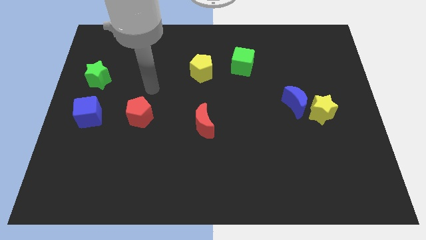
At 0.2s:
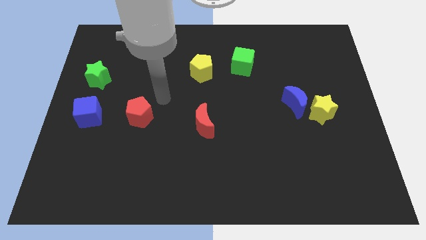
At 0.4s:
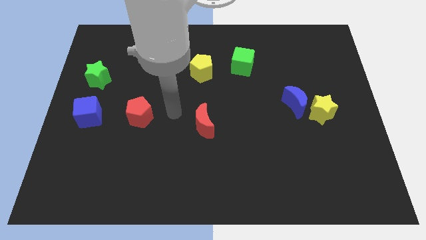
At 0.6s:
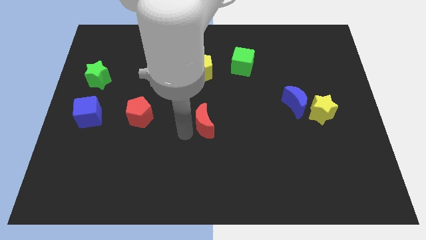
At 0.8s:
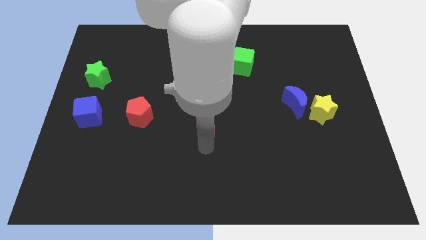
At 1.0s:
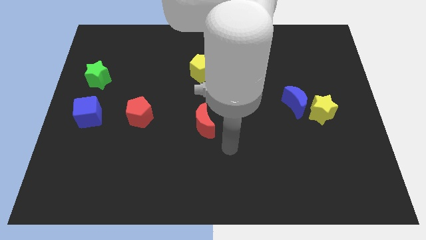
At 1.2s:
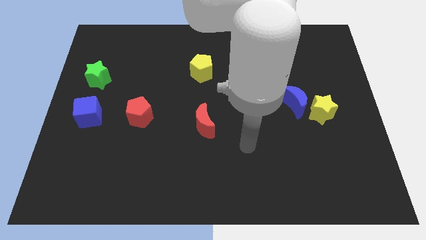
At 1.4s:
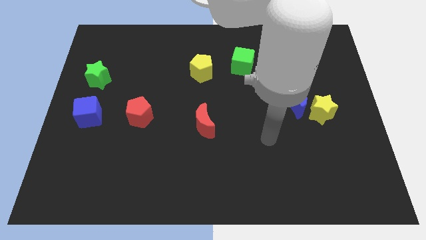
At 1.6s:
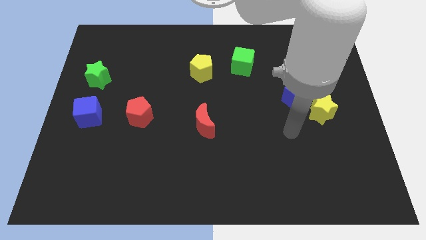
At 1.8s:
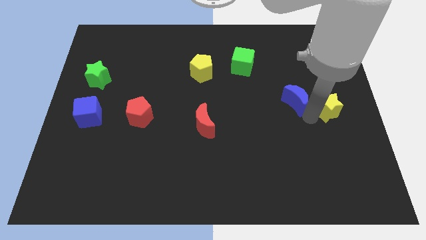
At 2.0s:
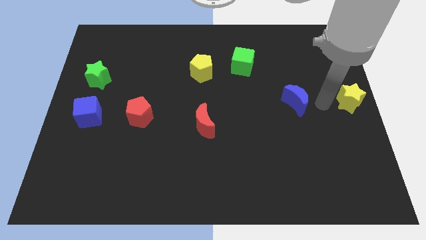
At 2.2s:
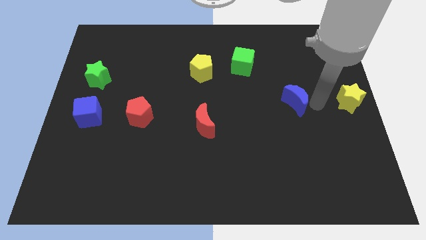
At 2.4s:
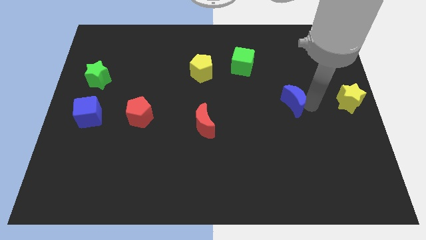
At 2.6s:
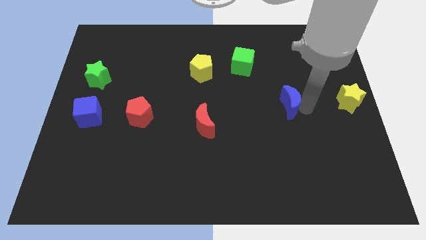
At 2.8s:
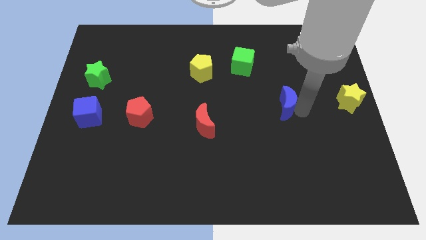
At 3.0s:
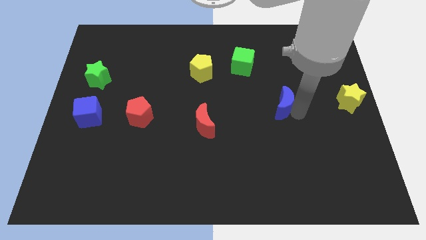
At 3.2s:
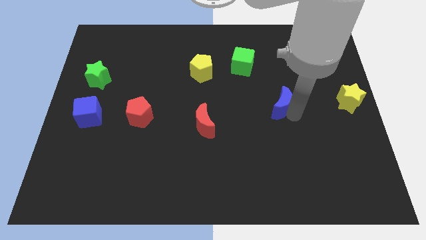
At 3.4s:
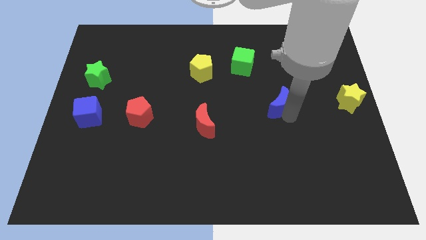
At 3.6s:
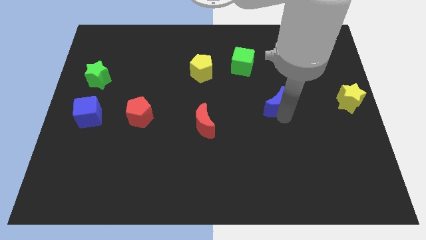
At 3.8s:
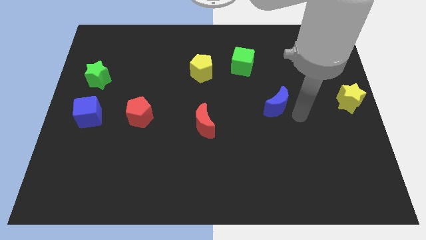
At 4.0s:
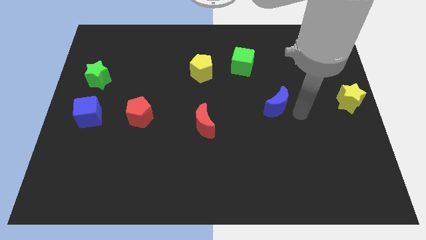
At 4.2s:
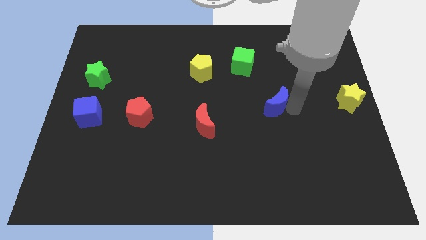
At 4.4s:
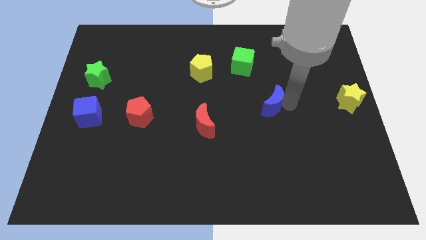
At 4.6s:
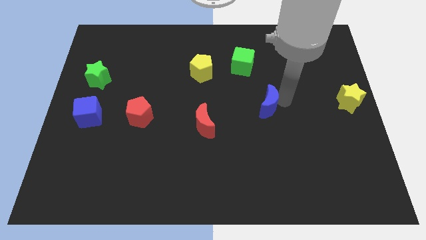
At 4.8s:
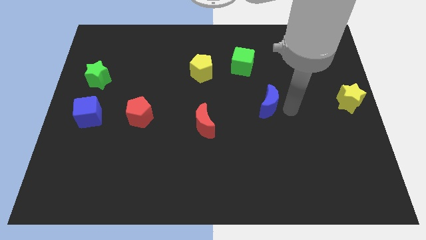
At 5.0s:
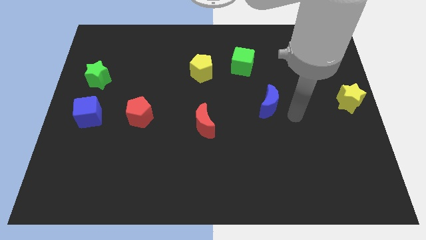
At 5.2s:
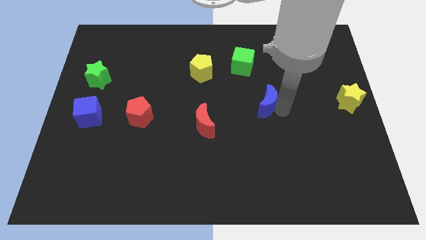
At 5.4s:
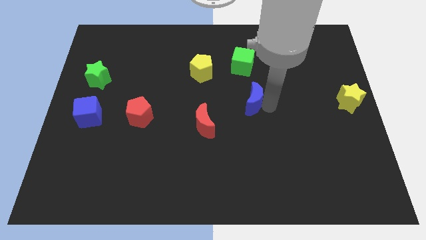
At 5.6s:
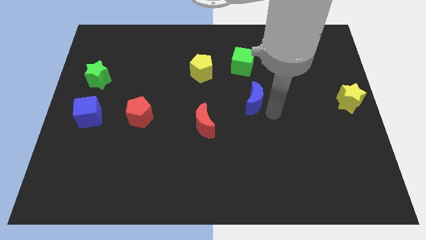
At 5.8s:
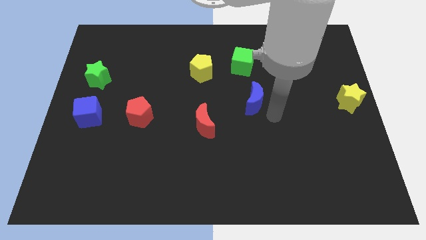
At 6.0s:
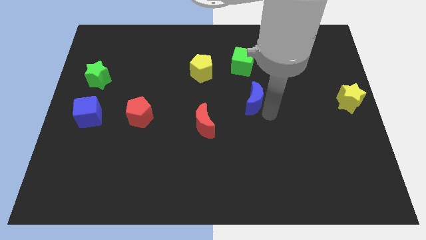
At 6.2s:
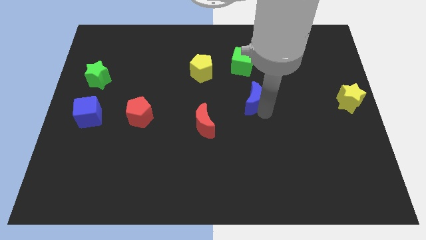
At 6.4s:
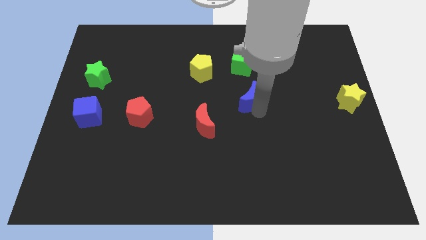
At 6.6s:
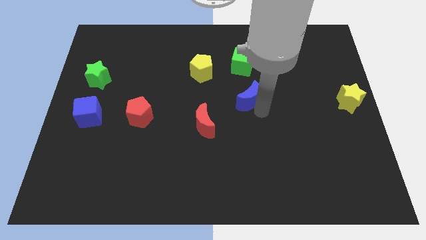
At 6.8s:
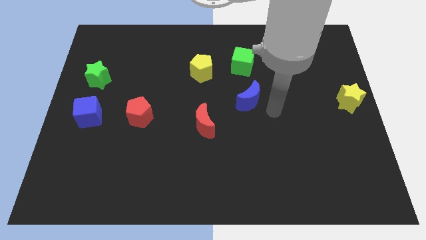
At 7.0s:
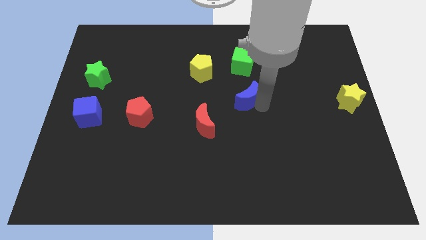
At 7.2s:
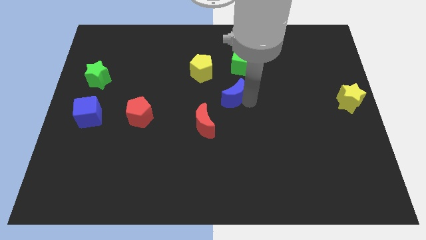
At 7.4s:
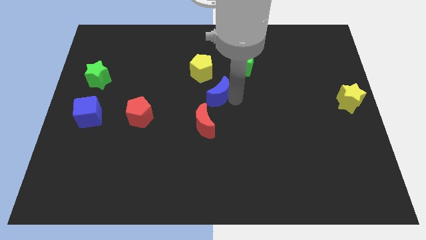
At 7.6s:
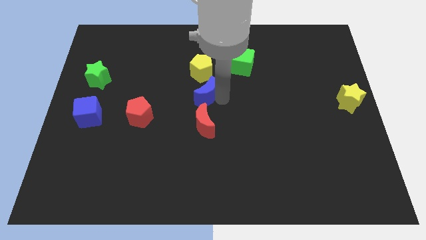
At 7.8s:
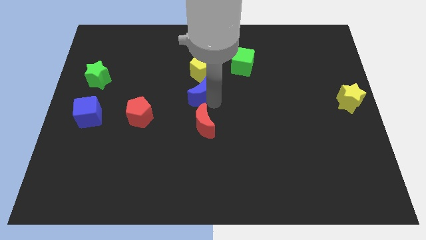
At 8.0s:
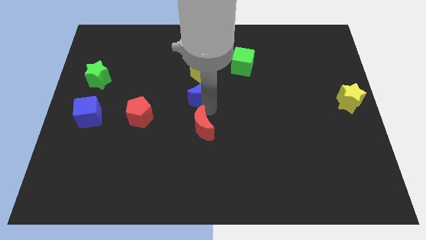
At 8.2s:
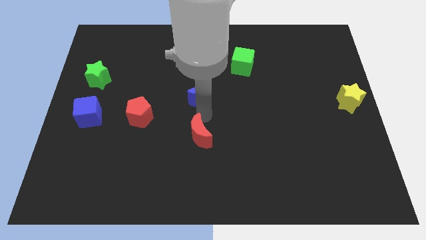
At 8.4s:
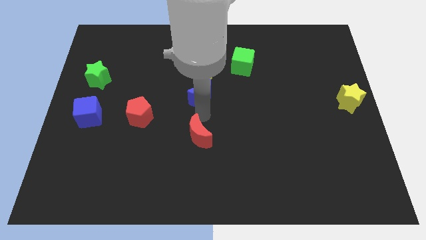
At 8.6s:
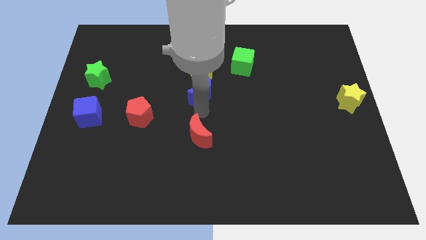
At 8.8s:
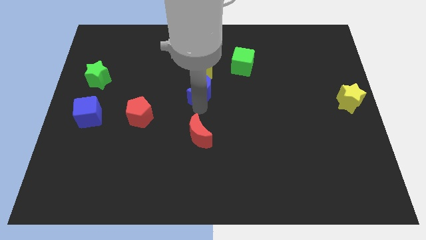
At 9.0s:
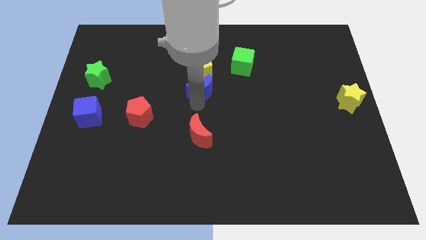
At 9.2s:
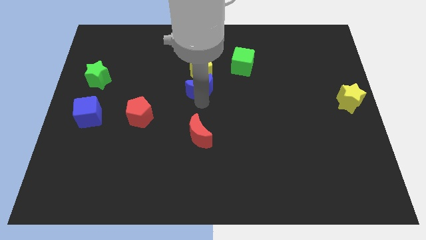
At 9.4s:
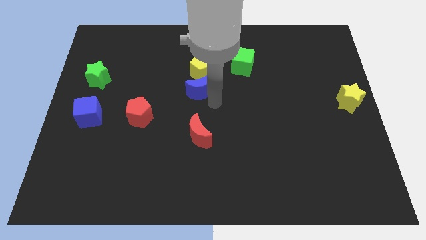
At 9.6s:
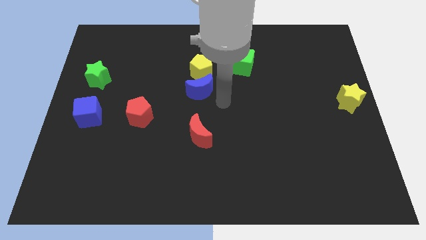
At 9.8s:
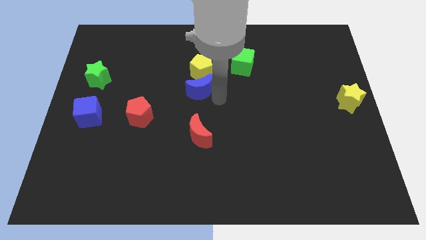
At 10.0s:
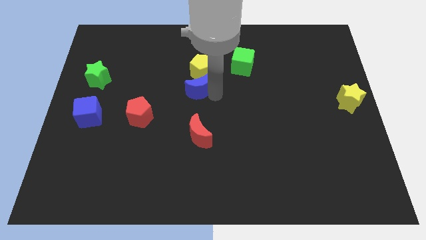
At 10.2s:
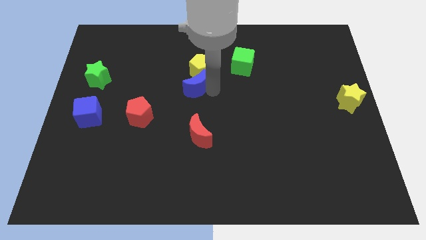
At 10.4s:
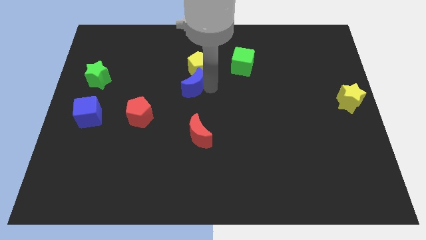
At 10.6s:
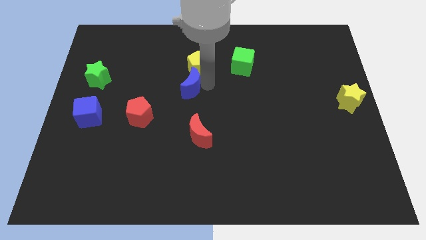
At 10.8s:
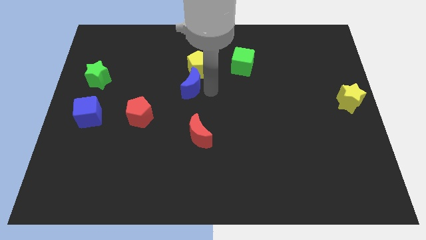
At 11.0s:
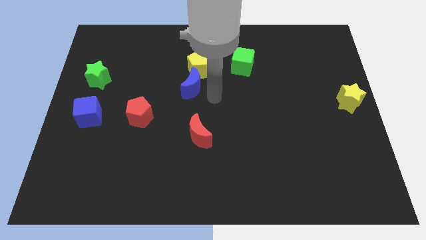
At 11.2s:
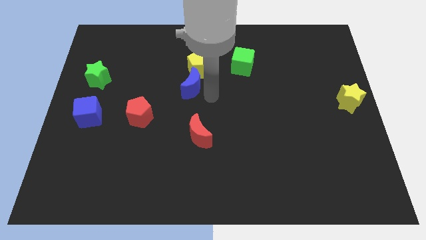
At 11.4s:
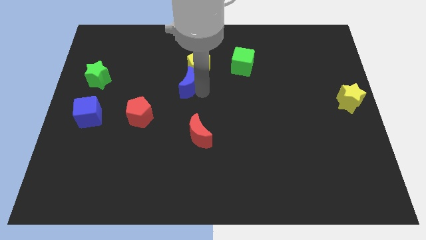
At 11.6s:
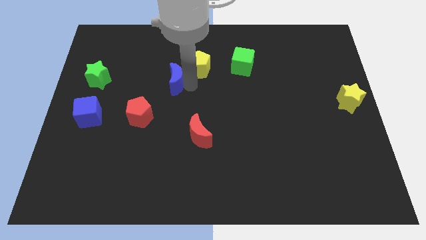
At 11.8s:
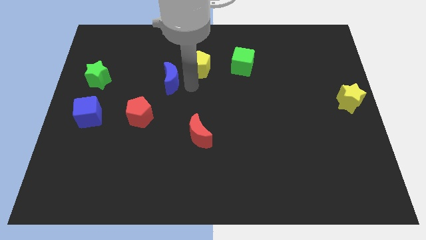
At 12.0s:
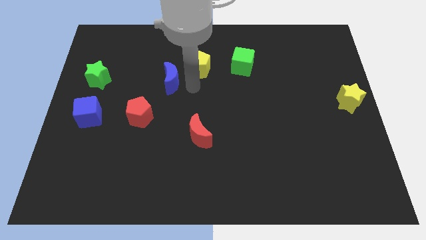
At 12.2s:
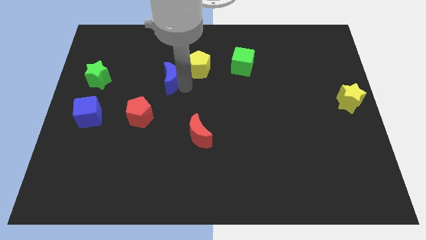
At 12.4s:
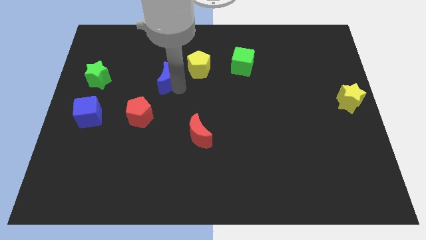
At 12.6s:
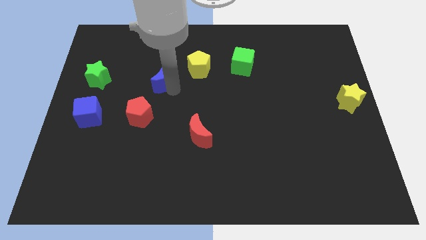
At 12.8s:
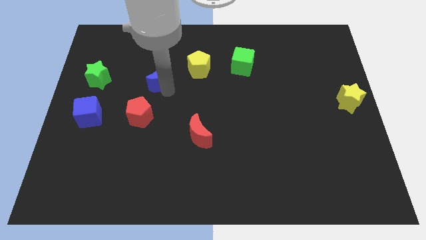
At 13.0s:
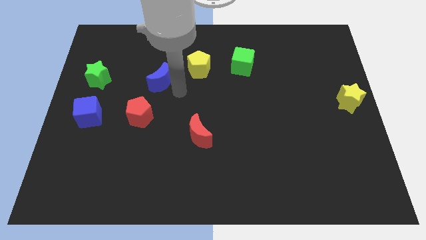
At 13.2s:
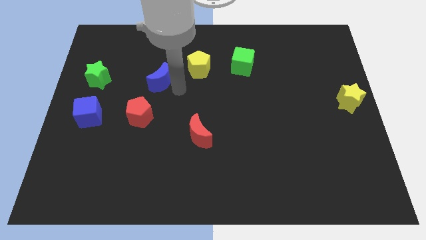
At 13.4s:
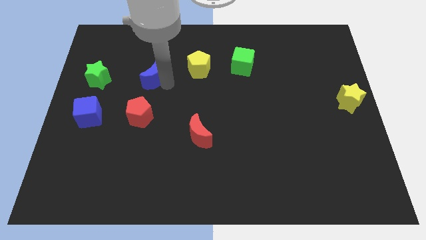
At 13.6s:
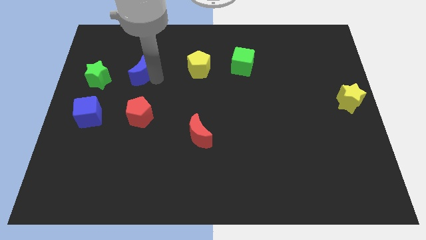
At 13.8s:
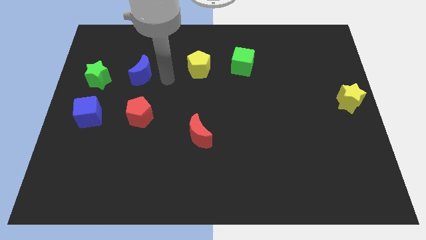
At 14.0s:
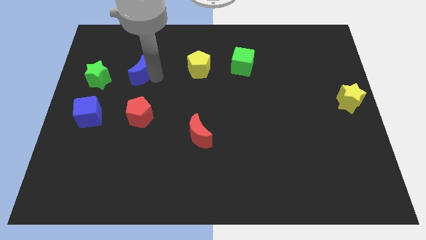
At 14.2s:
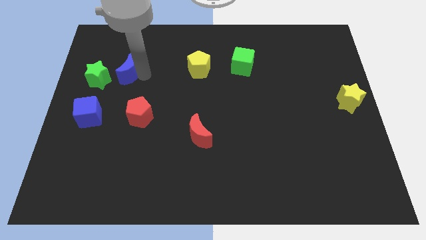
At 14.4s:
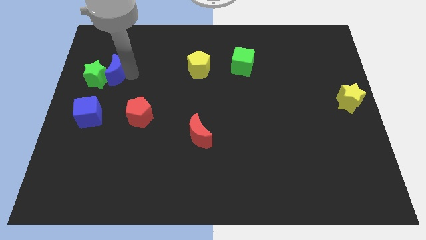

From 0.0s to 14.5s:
move the blue moon above the blue cube
